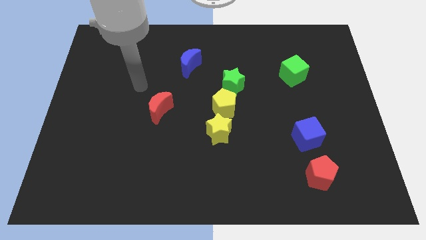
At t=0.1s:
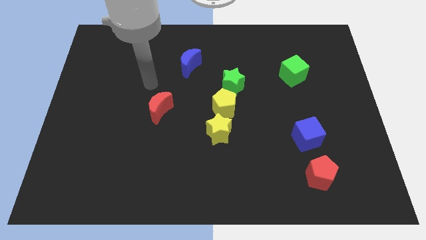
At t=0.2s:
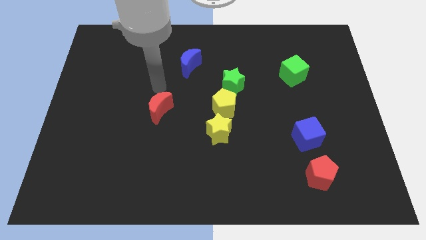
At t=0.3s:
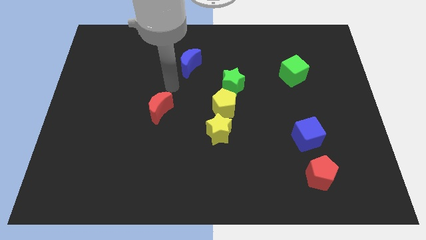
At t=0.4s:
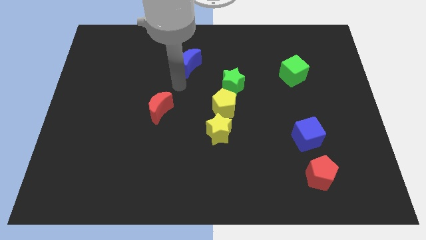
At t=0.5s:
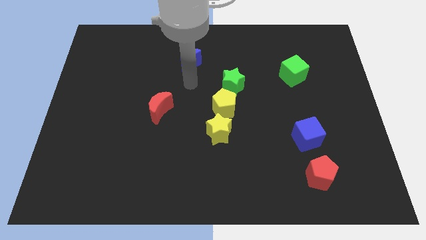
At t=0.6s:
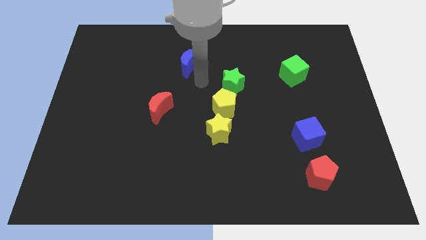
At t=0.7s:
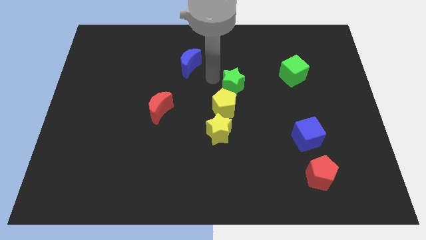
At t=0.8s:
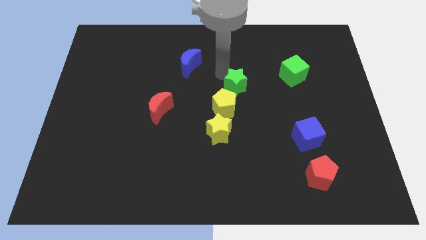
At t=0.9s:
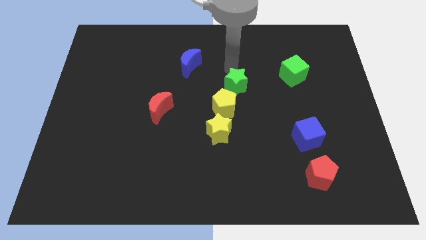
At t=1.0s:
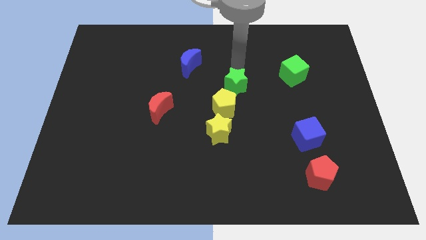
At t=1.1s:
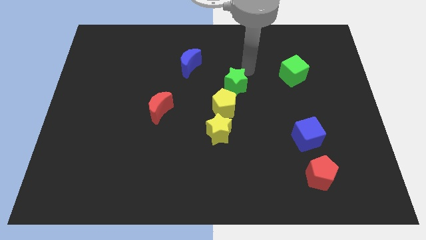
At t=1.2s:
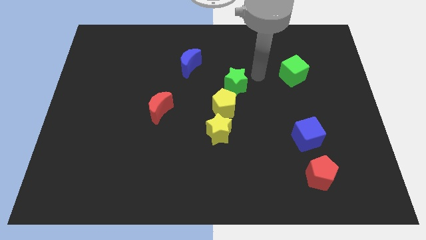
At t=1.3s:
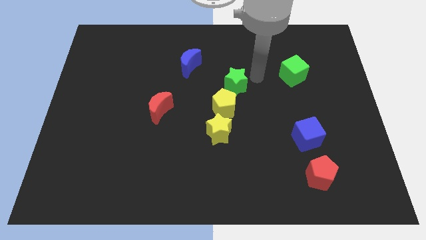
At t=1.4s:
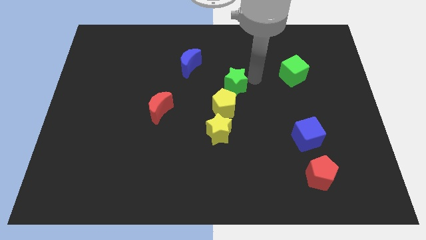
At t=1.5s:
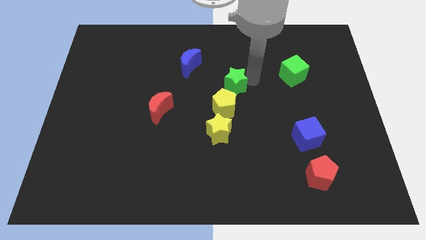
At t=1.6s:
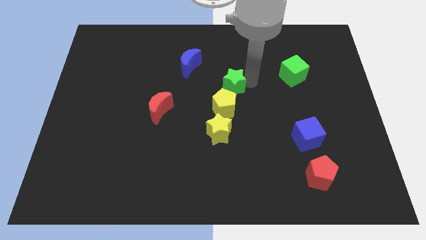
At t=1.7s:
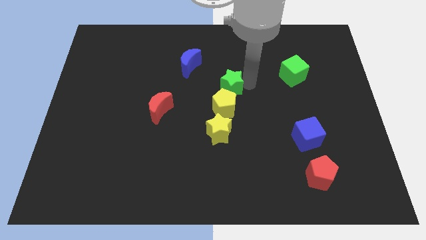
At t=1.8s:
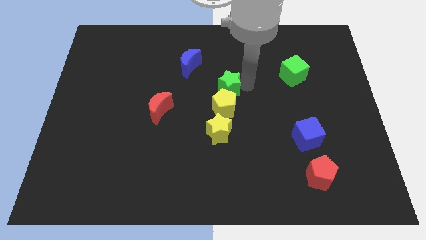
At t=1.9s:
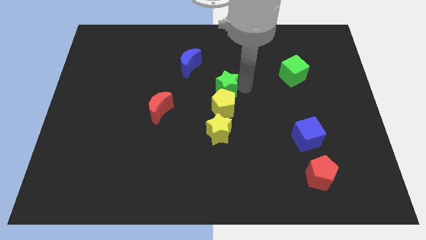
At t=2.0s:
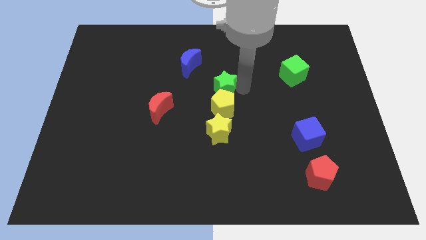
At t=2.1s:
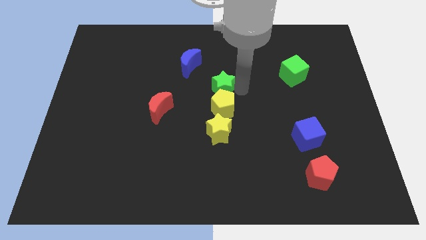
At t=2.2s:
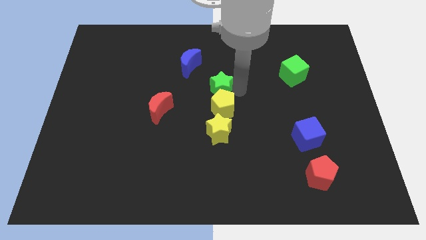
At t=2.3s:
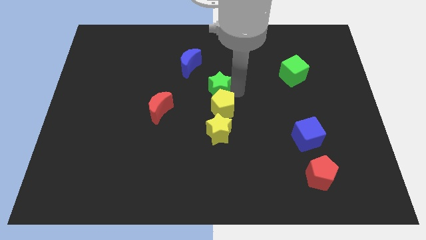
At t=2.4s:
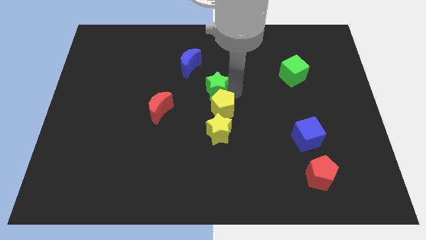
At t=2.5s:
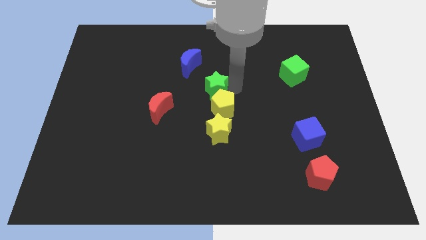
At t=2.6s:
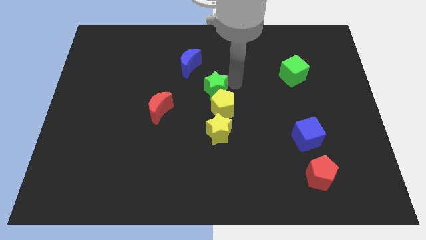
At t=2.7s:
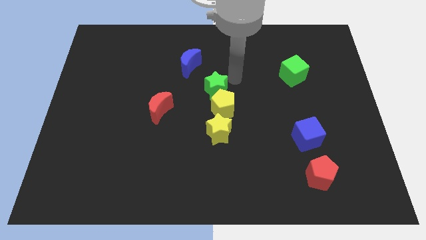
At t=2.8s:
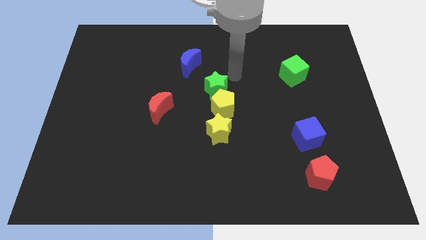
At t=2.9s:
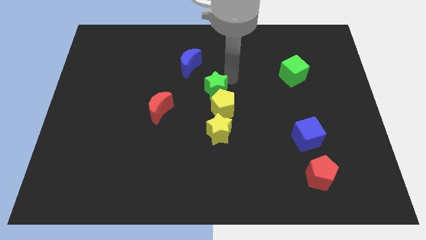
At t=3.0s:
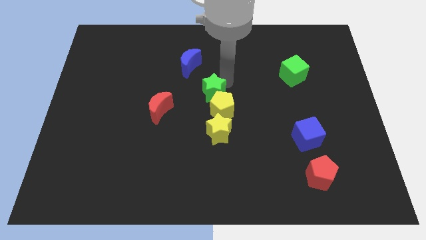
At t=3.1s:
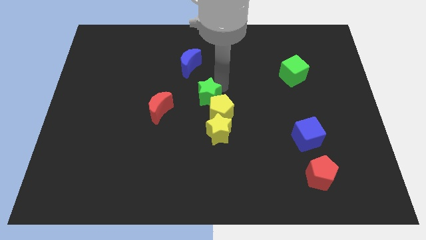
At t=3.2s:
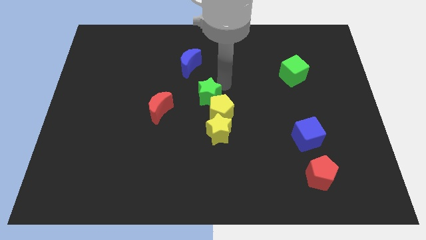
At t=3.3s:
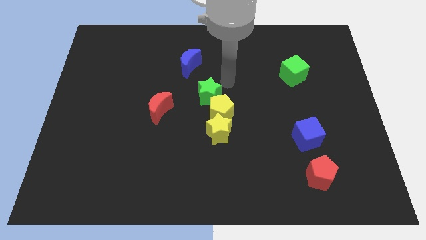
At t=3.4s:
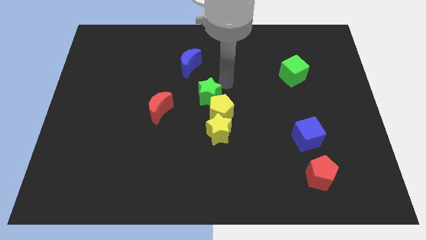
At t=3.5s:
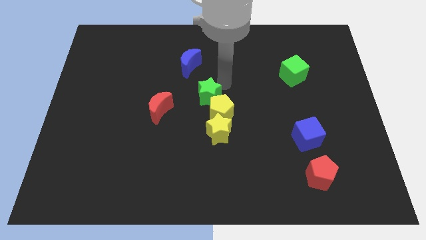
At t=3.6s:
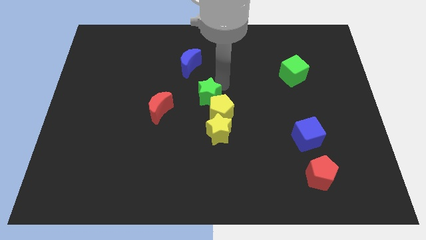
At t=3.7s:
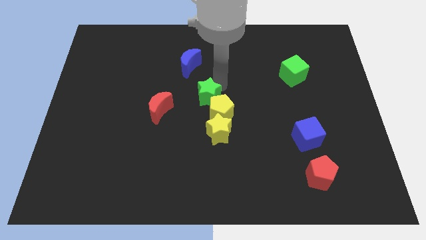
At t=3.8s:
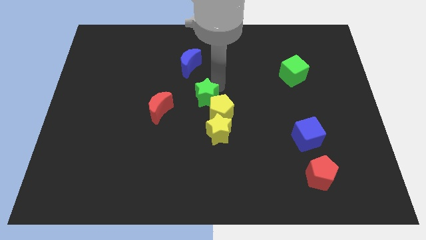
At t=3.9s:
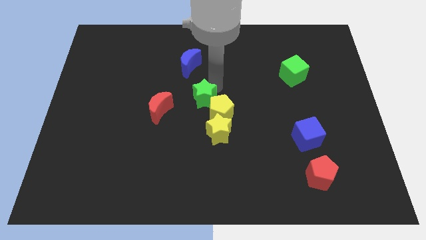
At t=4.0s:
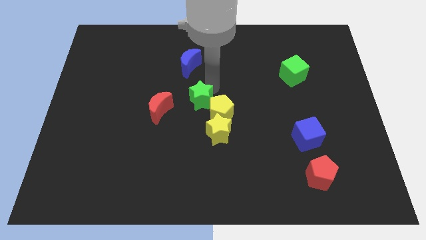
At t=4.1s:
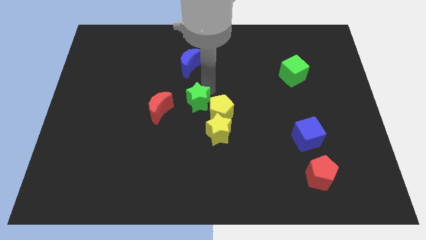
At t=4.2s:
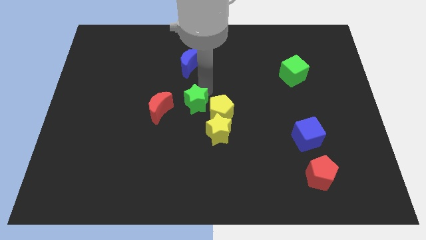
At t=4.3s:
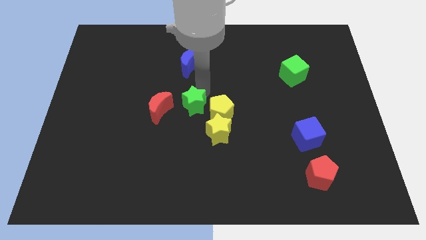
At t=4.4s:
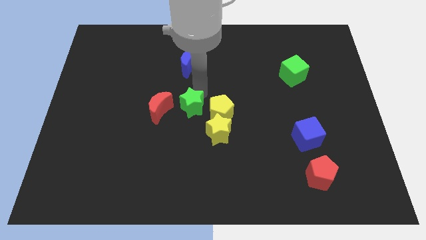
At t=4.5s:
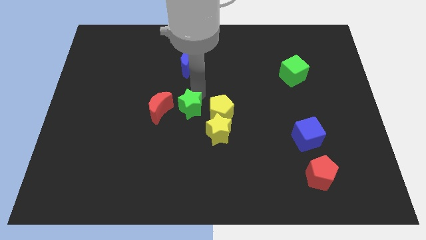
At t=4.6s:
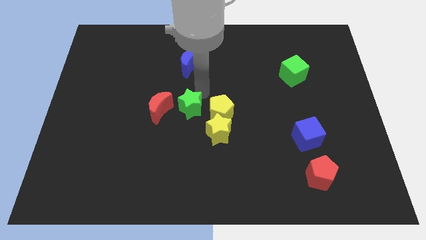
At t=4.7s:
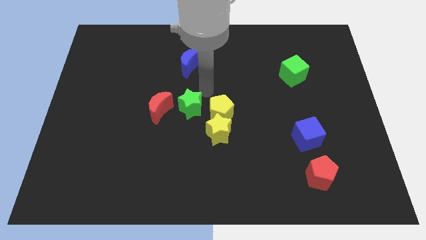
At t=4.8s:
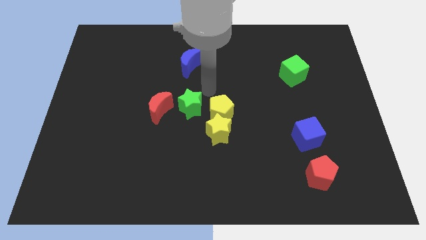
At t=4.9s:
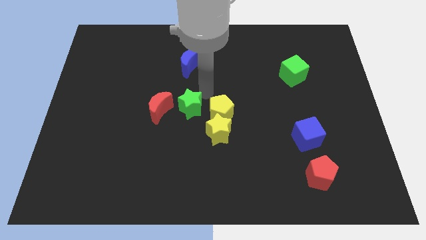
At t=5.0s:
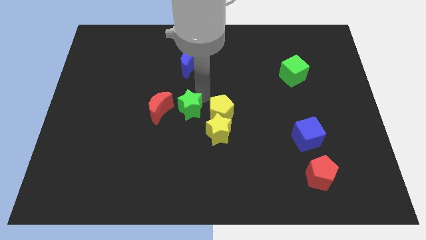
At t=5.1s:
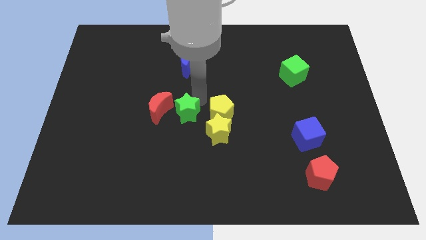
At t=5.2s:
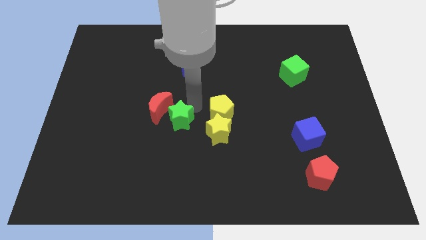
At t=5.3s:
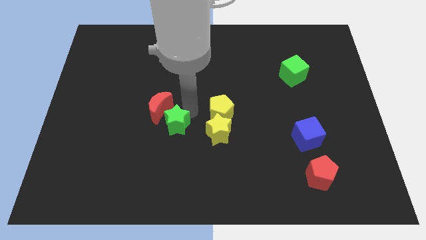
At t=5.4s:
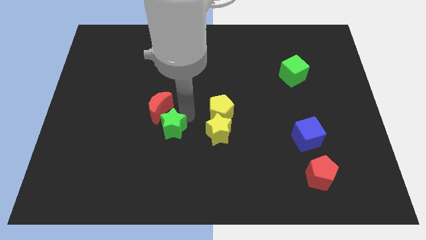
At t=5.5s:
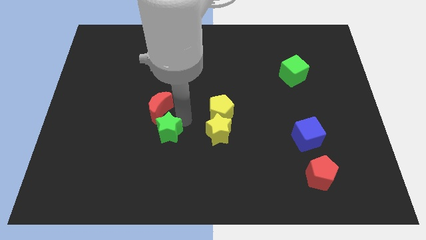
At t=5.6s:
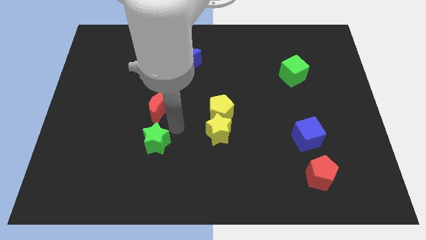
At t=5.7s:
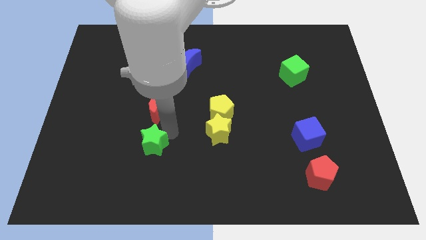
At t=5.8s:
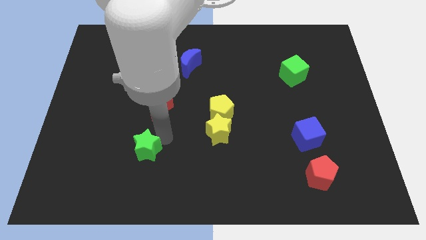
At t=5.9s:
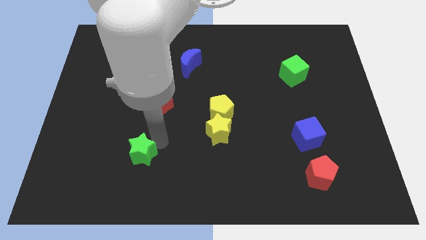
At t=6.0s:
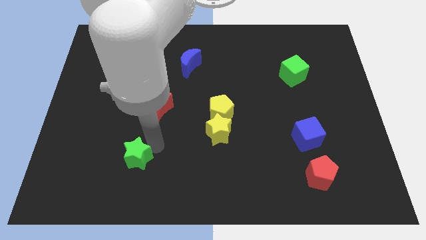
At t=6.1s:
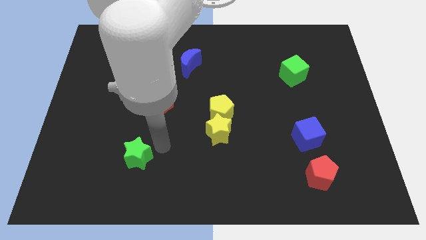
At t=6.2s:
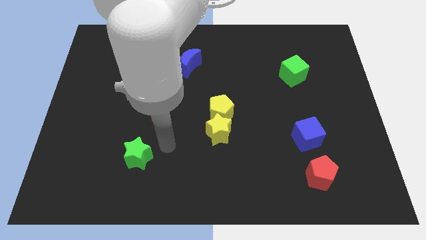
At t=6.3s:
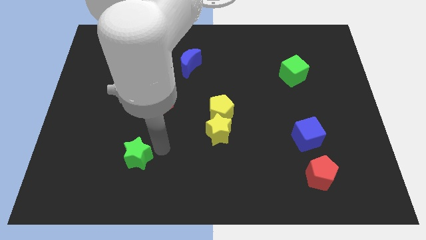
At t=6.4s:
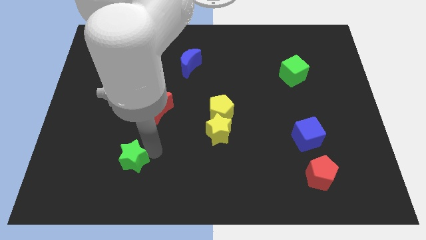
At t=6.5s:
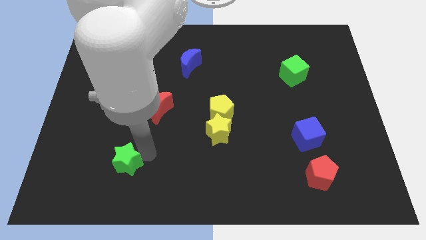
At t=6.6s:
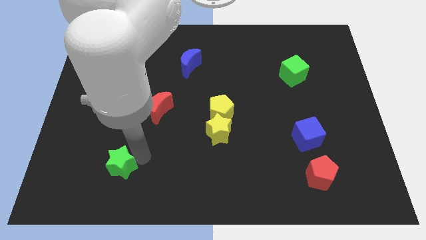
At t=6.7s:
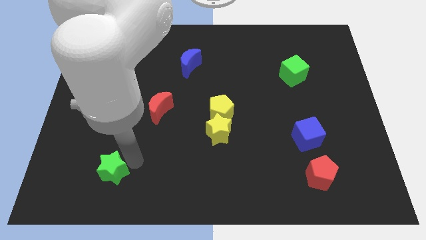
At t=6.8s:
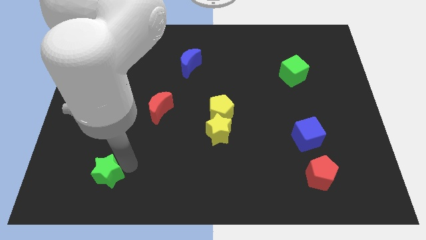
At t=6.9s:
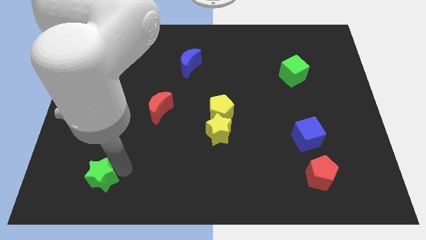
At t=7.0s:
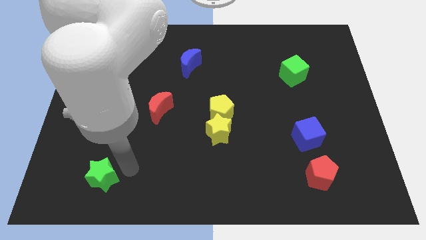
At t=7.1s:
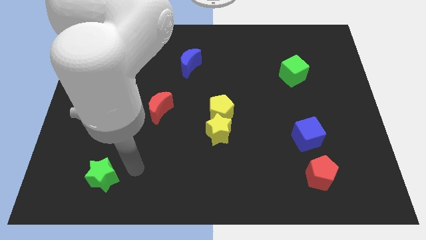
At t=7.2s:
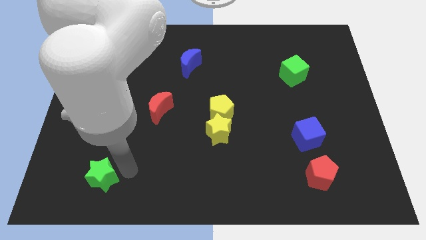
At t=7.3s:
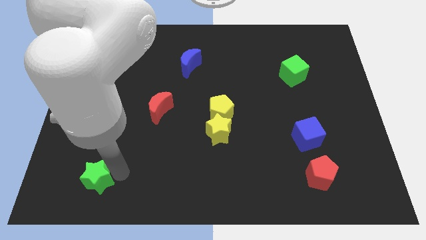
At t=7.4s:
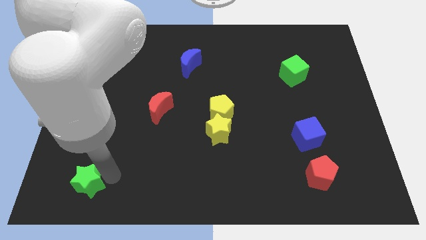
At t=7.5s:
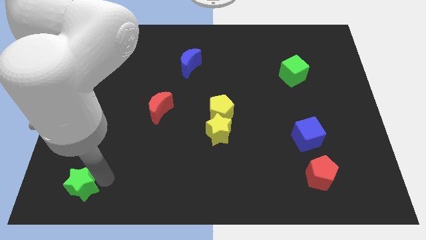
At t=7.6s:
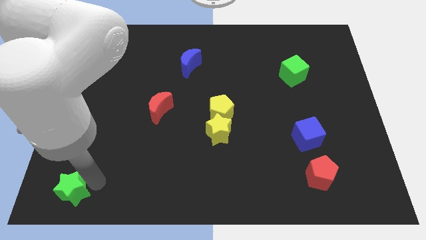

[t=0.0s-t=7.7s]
push the green star to the lower left corner
